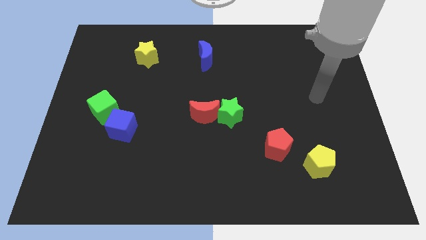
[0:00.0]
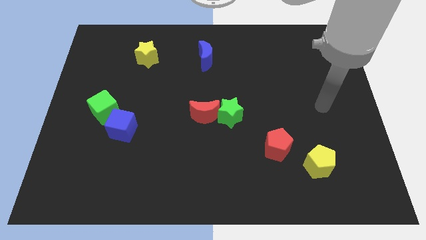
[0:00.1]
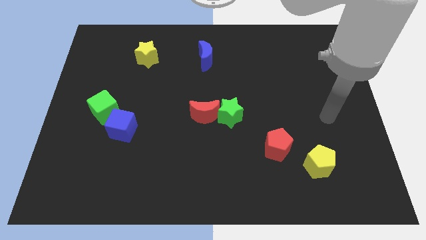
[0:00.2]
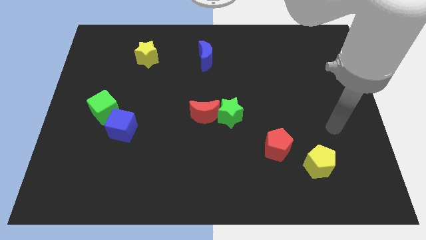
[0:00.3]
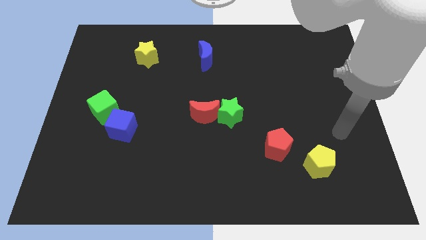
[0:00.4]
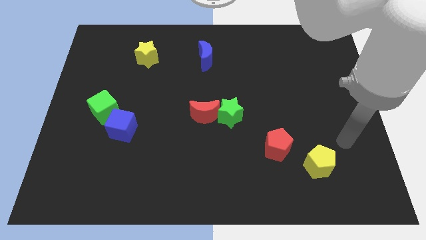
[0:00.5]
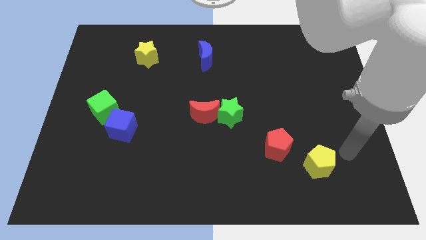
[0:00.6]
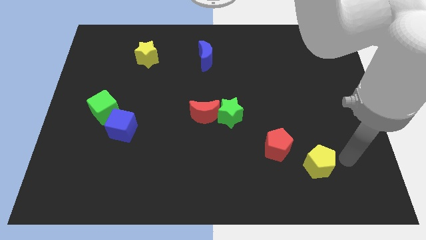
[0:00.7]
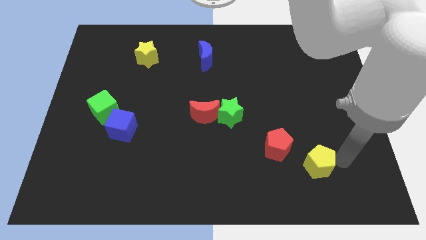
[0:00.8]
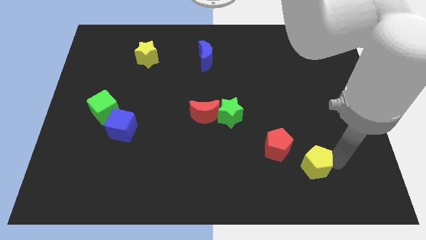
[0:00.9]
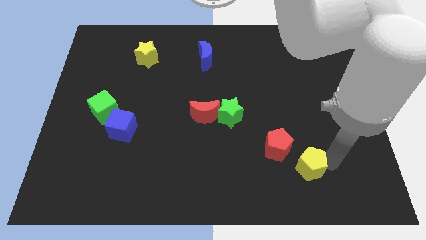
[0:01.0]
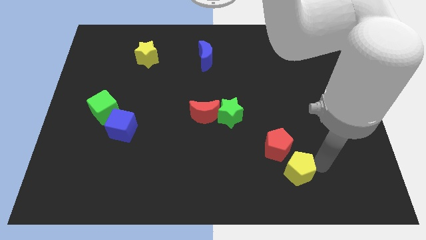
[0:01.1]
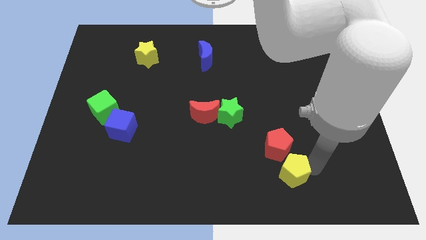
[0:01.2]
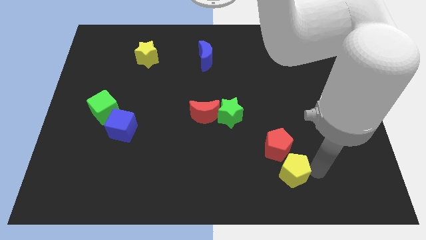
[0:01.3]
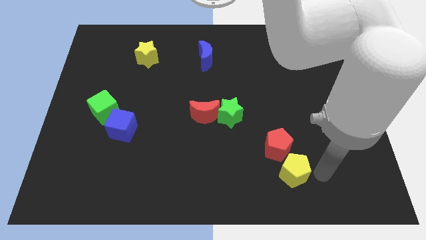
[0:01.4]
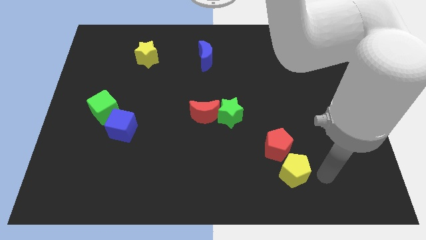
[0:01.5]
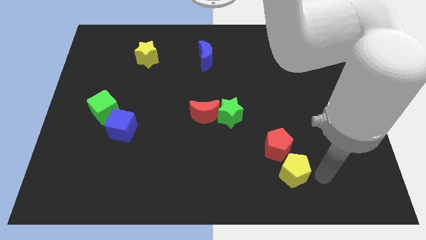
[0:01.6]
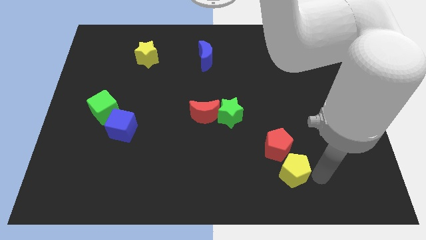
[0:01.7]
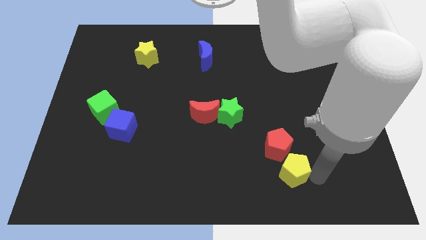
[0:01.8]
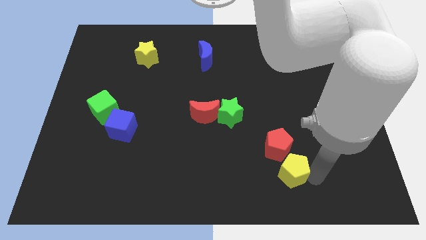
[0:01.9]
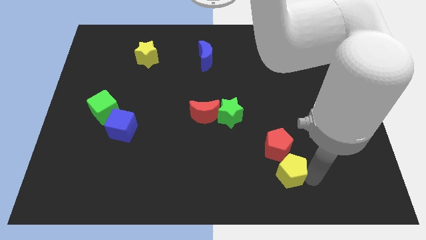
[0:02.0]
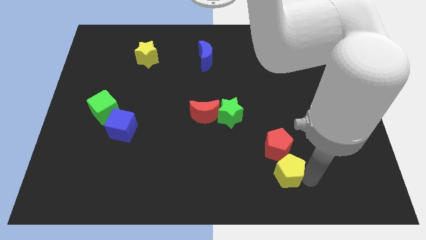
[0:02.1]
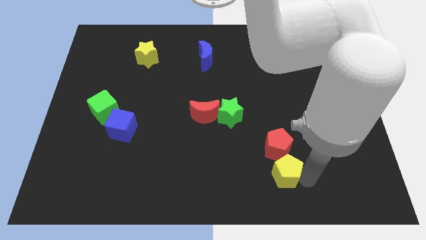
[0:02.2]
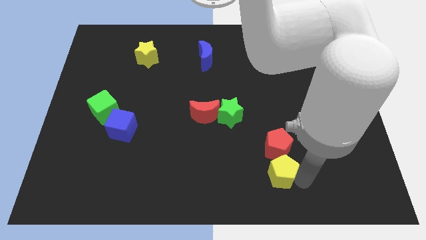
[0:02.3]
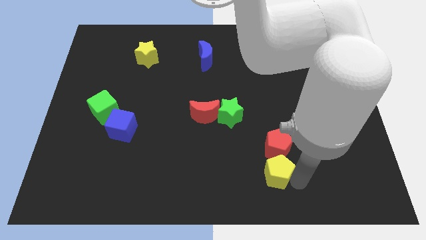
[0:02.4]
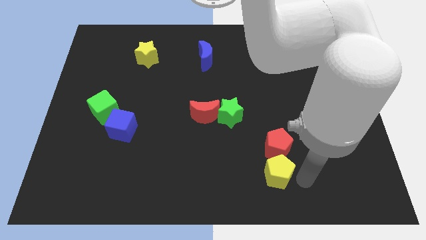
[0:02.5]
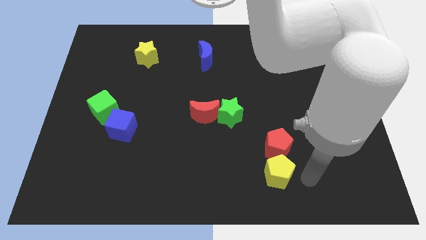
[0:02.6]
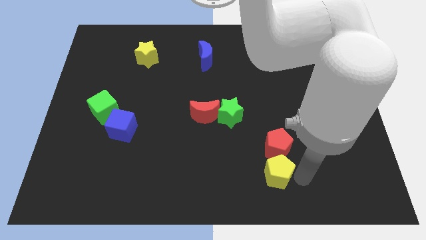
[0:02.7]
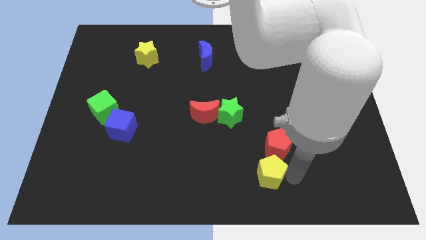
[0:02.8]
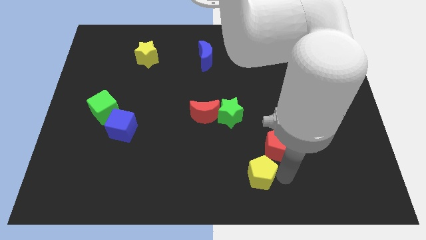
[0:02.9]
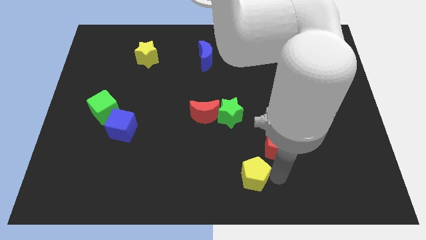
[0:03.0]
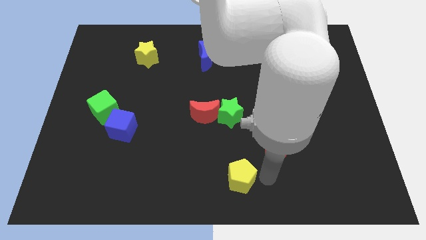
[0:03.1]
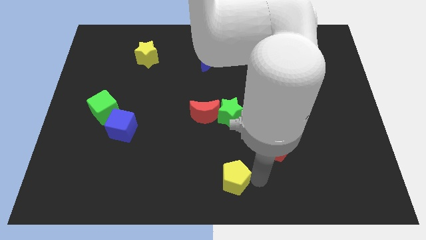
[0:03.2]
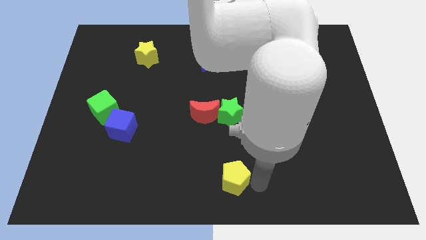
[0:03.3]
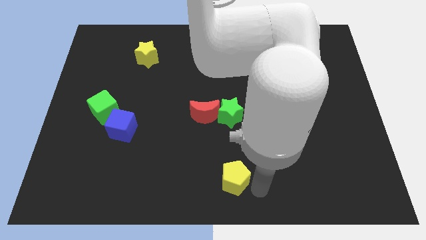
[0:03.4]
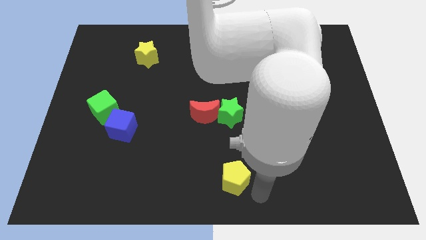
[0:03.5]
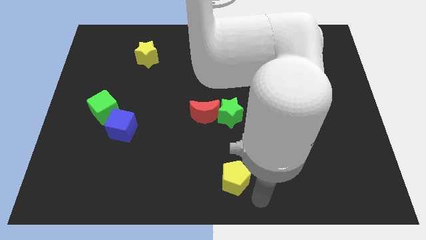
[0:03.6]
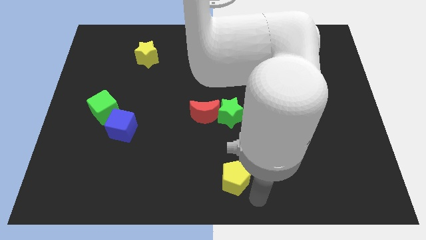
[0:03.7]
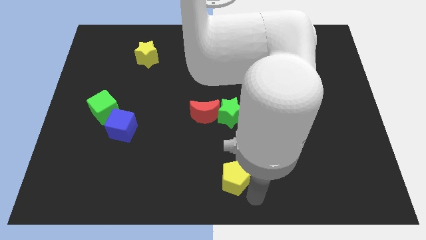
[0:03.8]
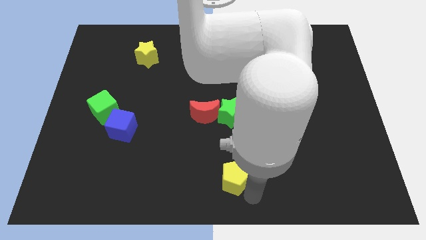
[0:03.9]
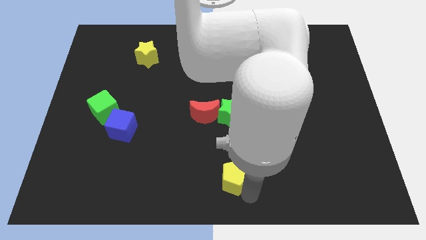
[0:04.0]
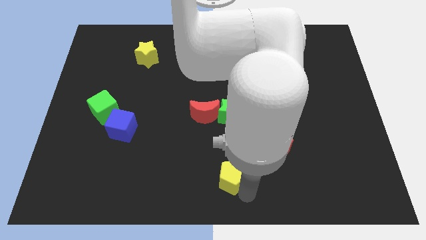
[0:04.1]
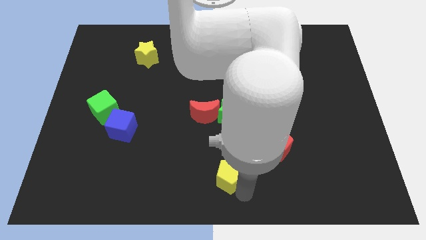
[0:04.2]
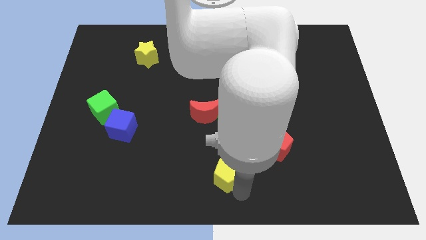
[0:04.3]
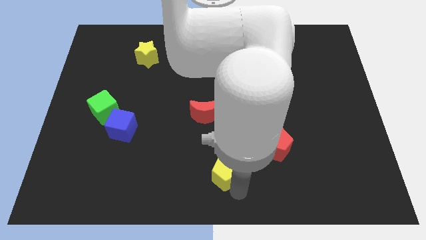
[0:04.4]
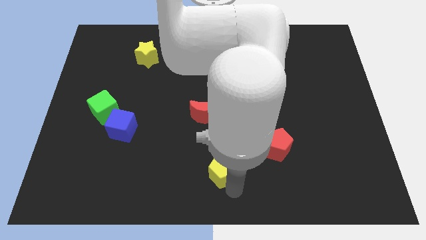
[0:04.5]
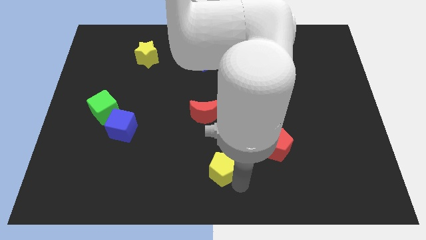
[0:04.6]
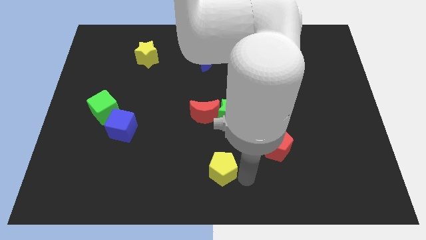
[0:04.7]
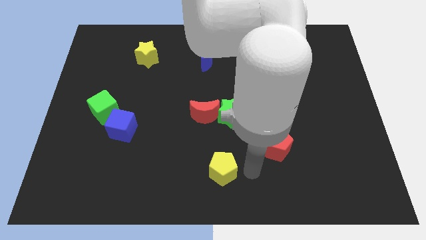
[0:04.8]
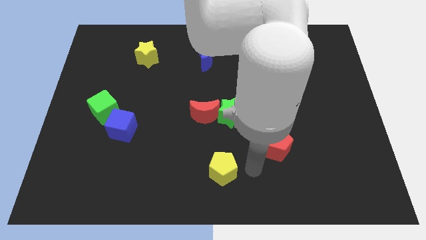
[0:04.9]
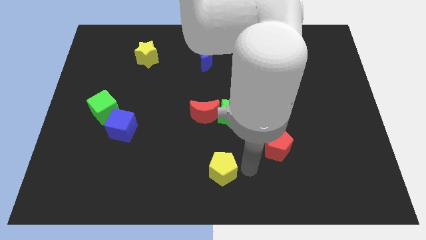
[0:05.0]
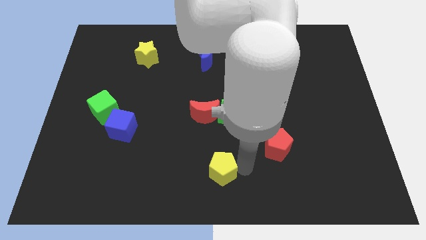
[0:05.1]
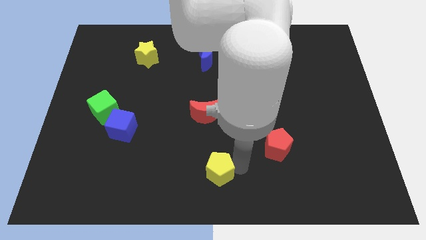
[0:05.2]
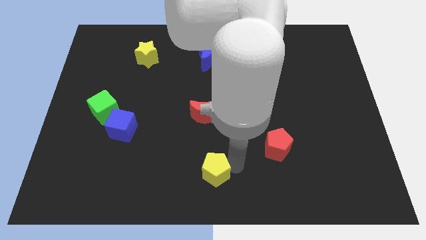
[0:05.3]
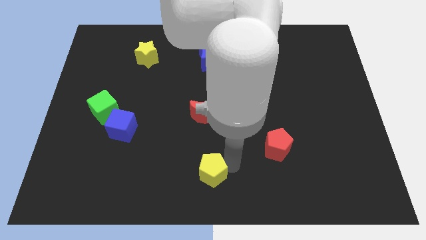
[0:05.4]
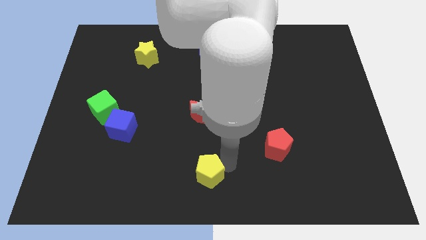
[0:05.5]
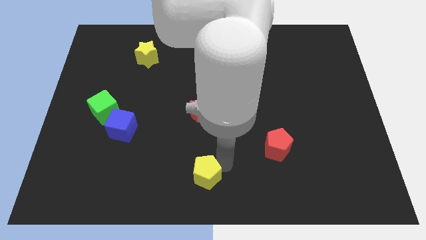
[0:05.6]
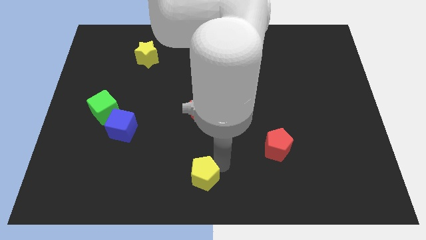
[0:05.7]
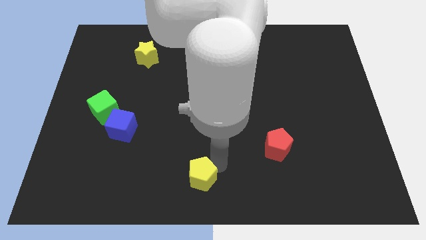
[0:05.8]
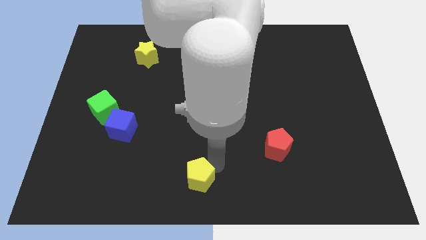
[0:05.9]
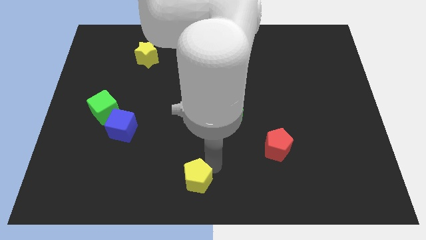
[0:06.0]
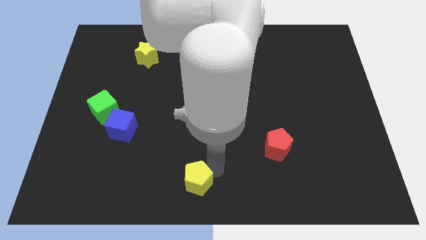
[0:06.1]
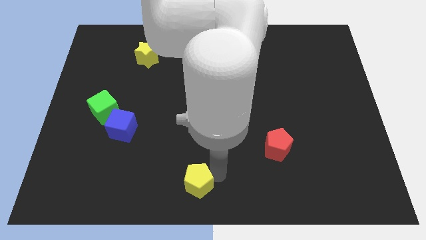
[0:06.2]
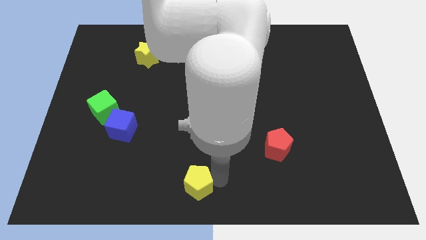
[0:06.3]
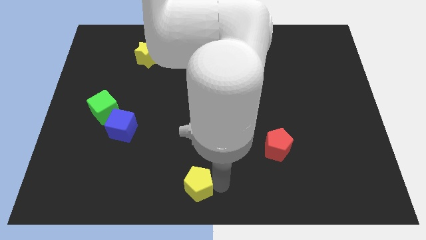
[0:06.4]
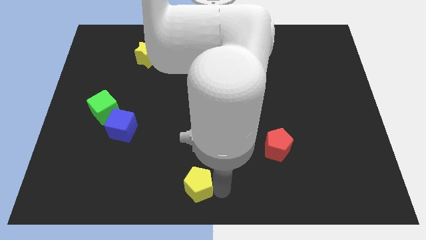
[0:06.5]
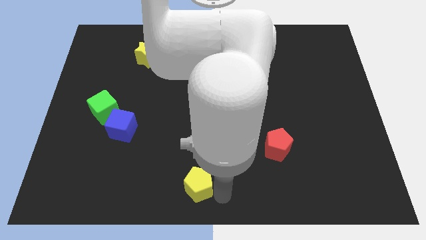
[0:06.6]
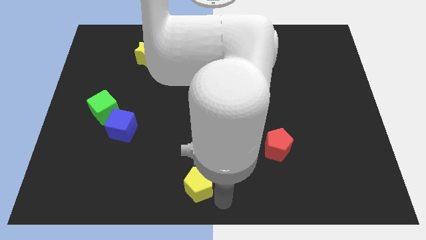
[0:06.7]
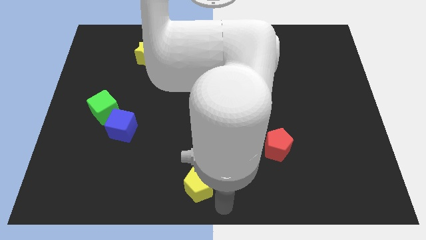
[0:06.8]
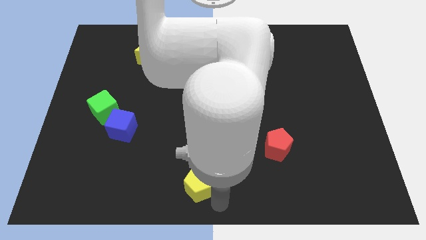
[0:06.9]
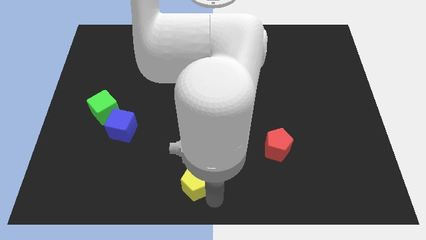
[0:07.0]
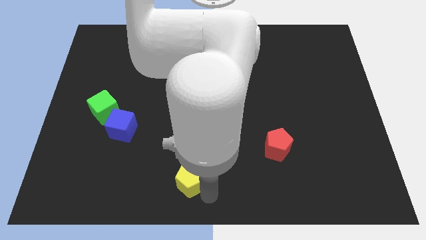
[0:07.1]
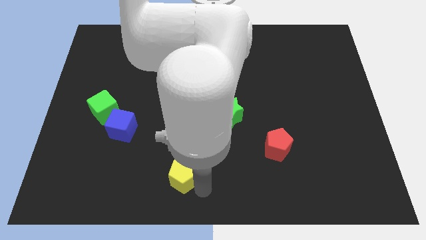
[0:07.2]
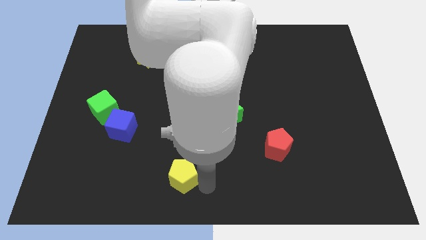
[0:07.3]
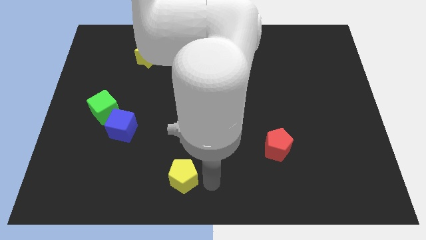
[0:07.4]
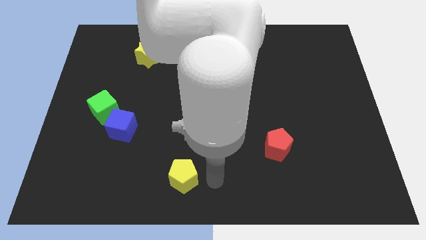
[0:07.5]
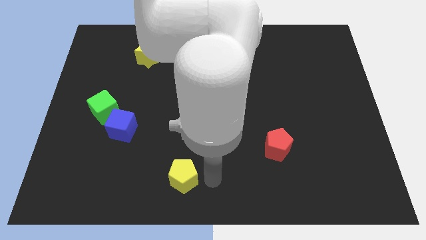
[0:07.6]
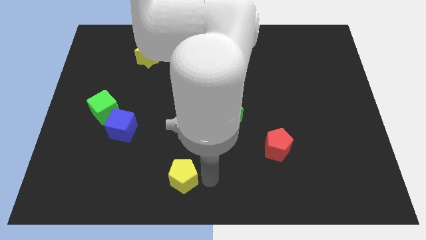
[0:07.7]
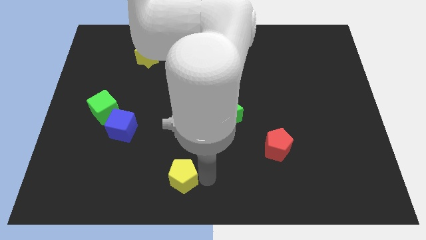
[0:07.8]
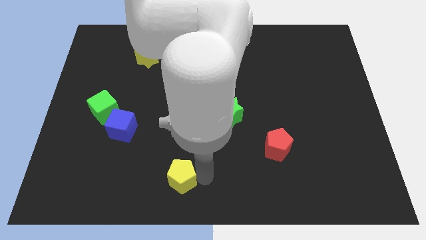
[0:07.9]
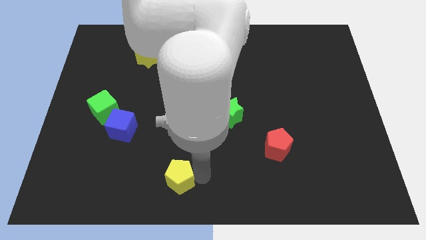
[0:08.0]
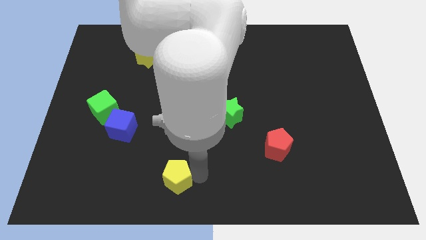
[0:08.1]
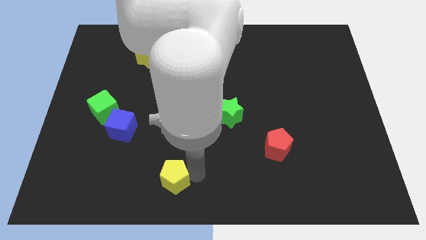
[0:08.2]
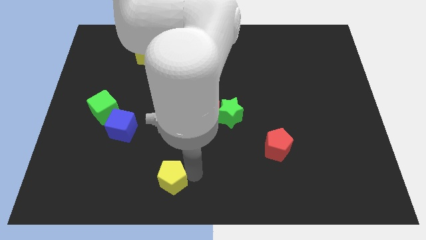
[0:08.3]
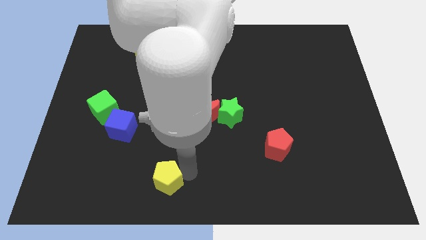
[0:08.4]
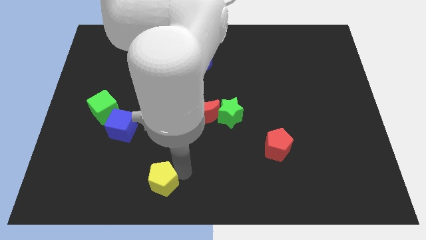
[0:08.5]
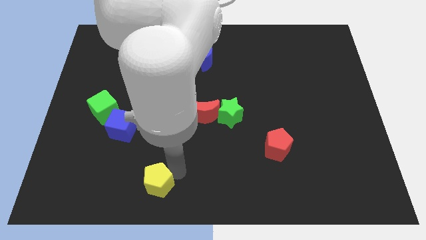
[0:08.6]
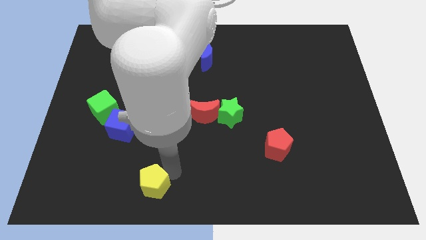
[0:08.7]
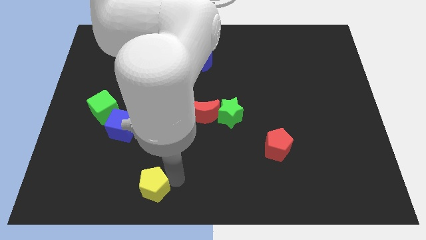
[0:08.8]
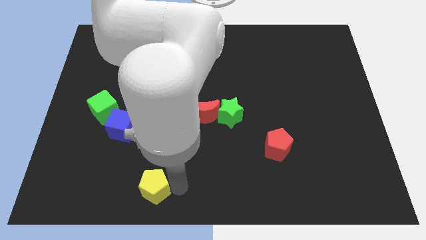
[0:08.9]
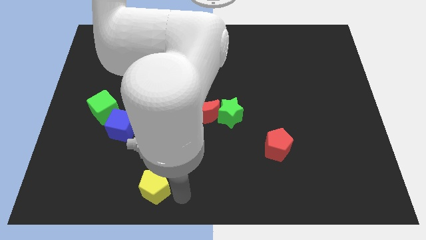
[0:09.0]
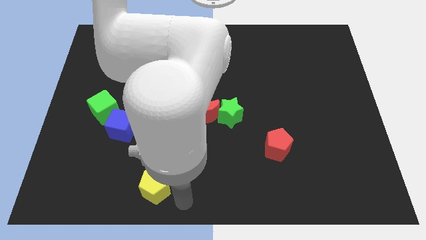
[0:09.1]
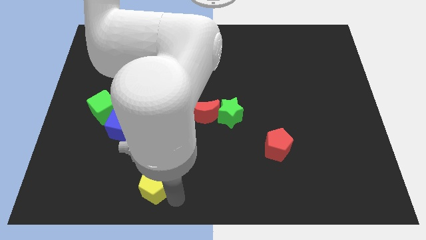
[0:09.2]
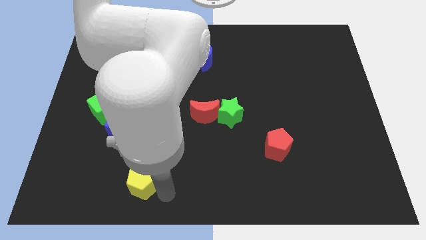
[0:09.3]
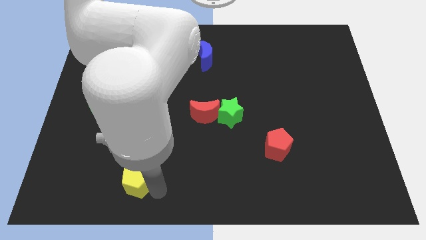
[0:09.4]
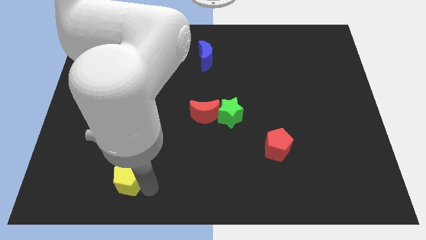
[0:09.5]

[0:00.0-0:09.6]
move the yellow pentagon to the bottom of the blue cube
